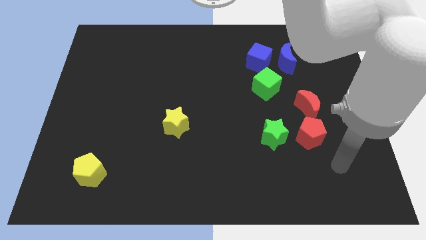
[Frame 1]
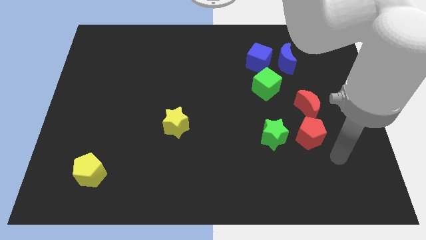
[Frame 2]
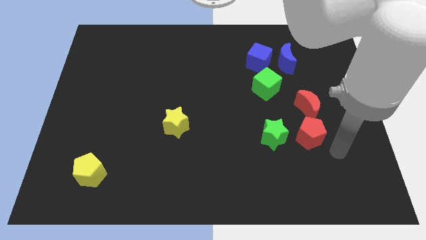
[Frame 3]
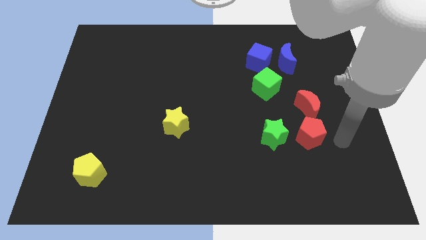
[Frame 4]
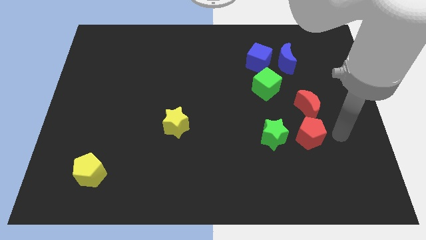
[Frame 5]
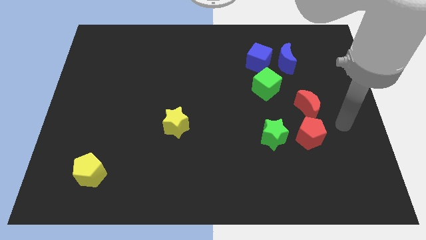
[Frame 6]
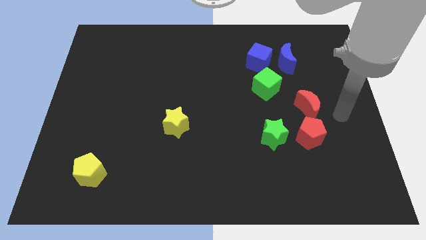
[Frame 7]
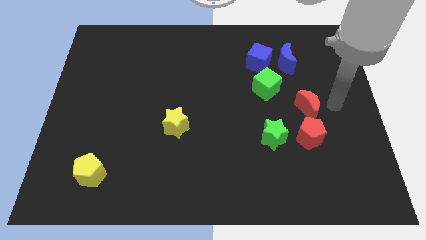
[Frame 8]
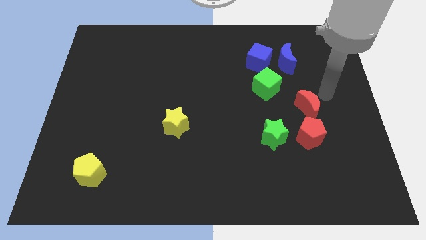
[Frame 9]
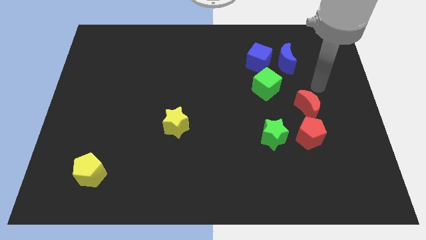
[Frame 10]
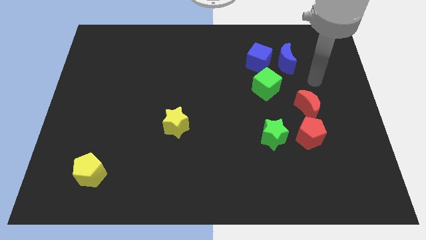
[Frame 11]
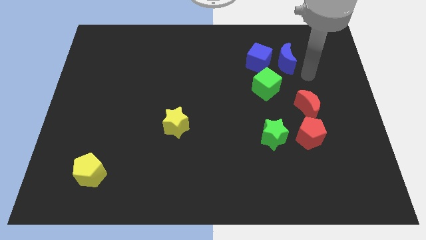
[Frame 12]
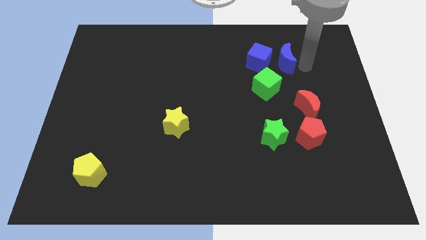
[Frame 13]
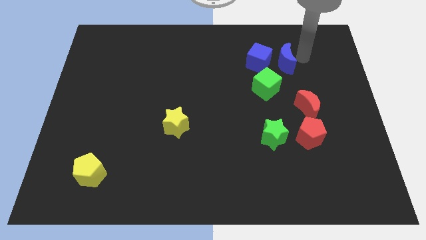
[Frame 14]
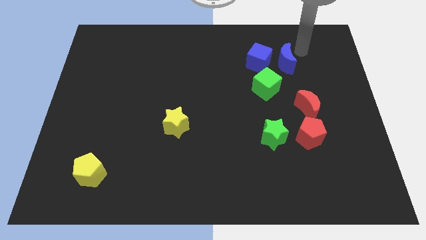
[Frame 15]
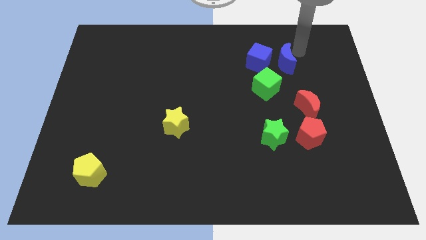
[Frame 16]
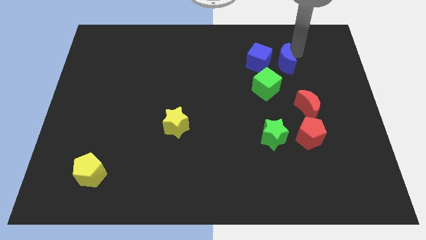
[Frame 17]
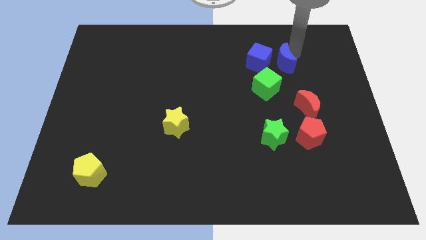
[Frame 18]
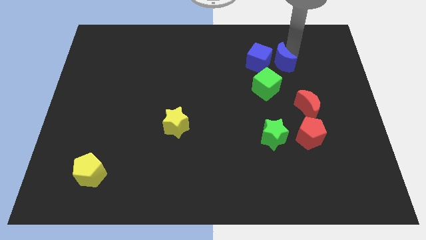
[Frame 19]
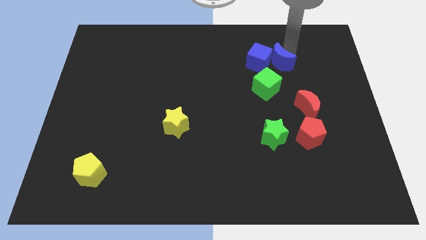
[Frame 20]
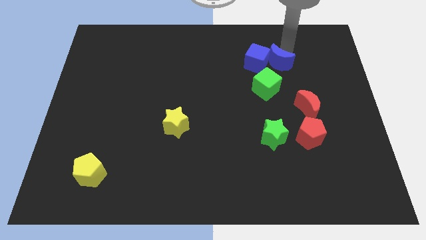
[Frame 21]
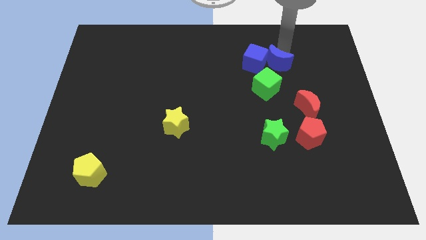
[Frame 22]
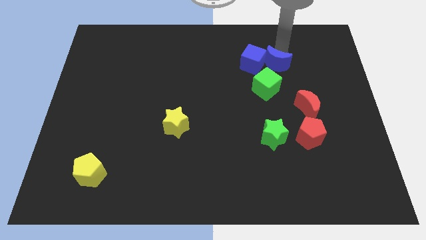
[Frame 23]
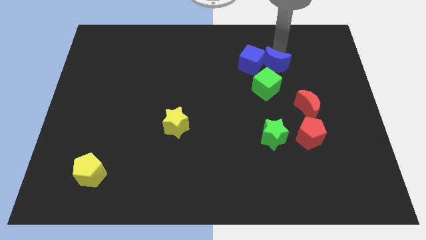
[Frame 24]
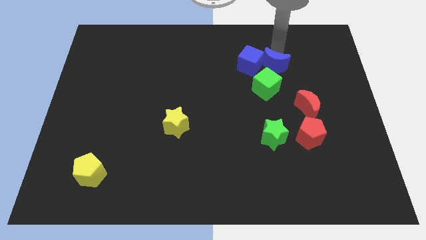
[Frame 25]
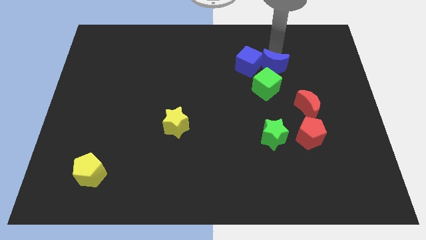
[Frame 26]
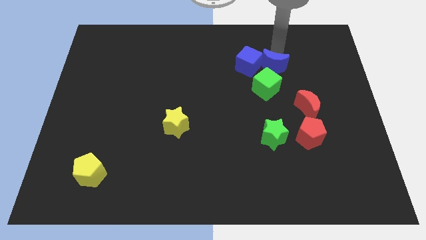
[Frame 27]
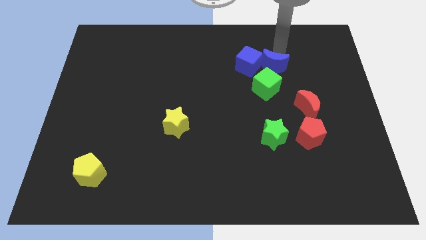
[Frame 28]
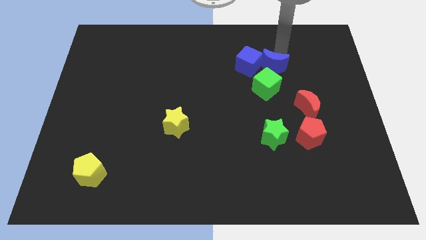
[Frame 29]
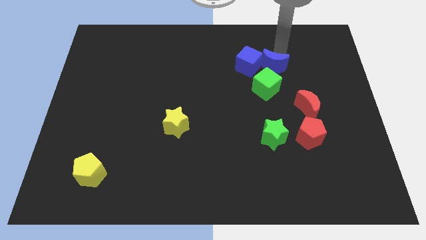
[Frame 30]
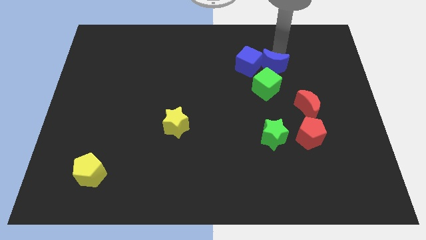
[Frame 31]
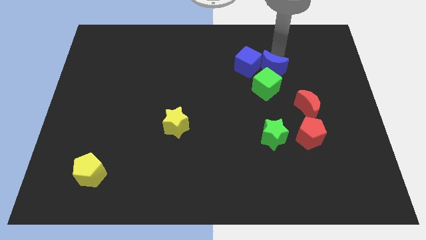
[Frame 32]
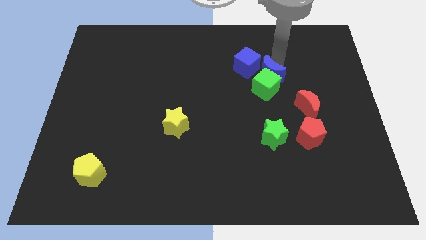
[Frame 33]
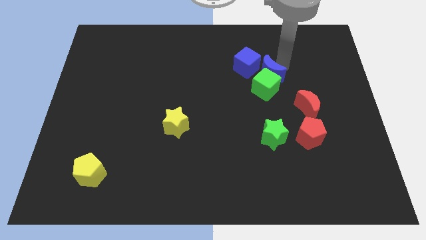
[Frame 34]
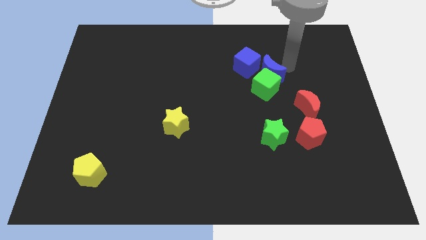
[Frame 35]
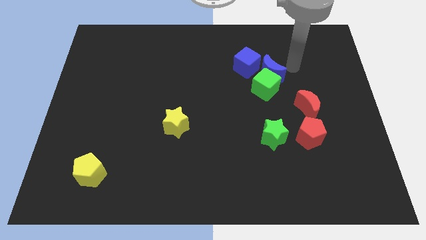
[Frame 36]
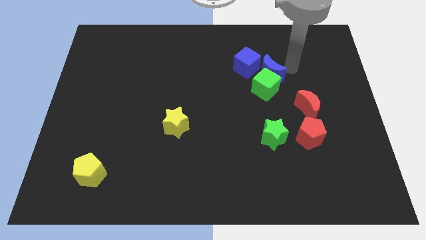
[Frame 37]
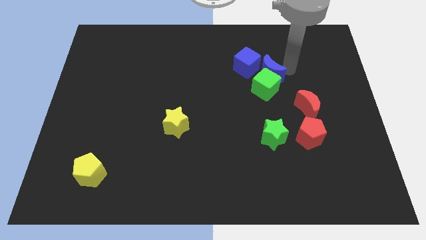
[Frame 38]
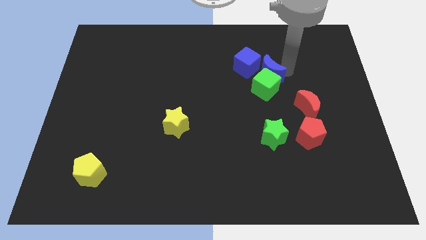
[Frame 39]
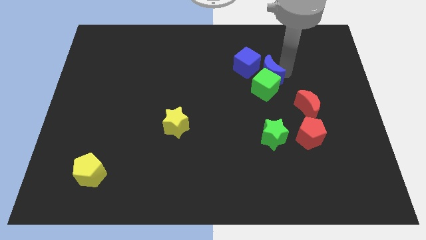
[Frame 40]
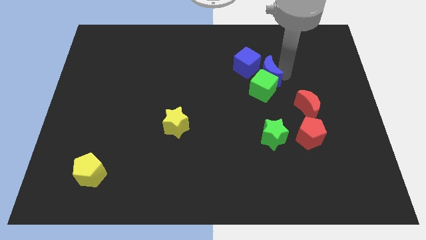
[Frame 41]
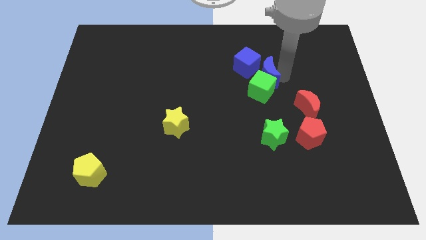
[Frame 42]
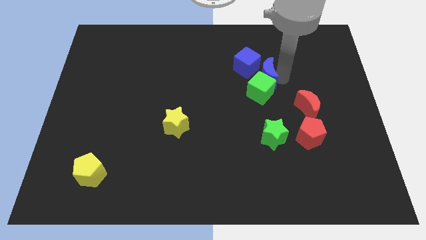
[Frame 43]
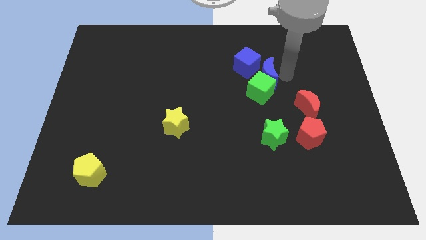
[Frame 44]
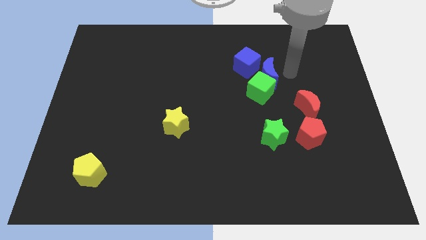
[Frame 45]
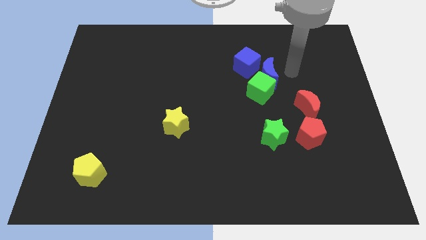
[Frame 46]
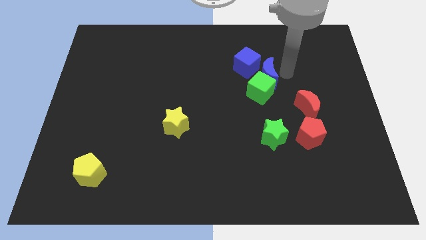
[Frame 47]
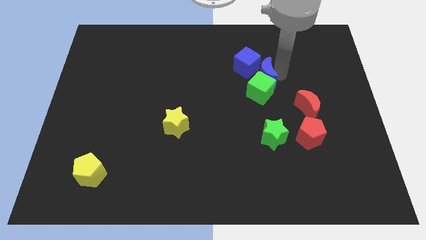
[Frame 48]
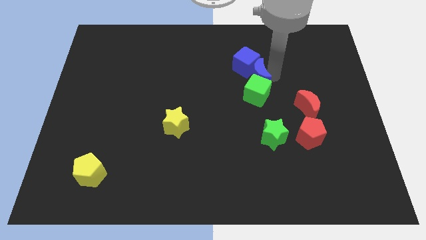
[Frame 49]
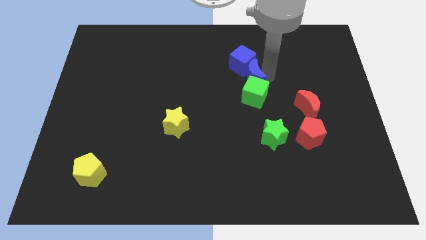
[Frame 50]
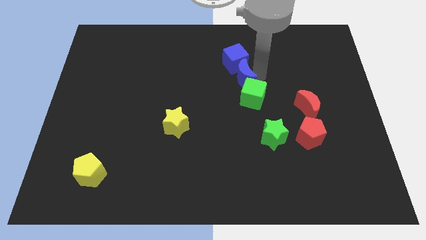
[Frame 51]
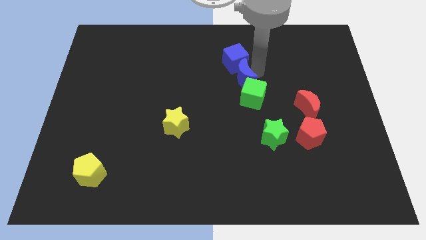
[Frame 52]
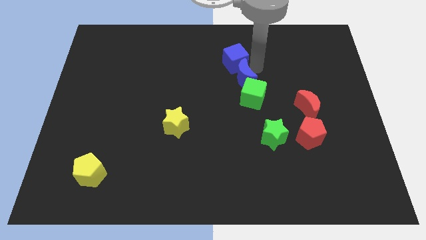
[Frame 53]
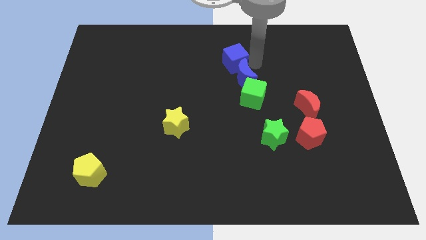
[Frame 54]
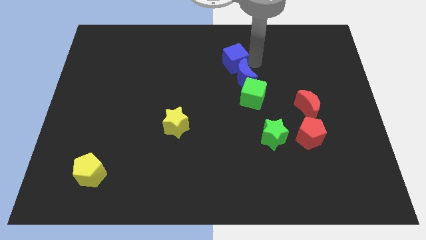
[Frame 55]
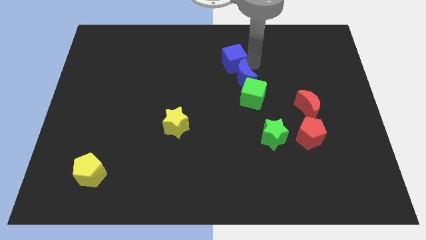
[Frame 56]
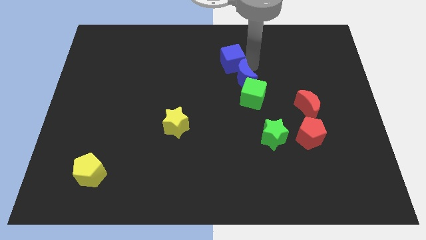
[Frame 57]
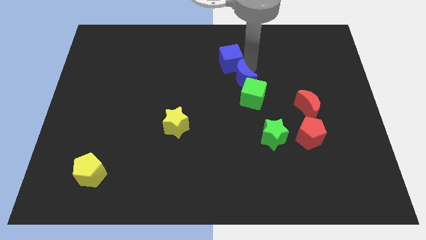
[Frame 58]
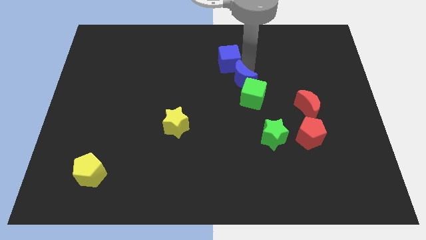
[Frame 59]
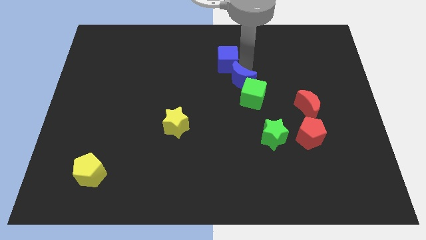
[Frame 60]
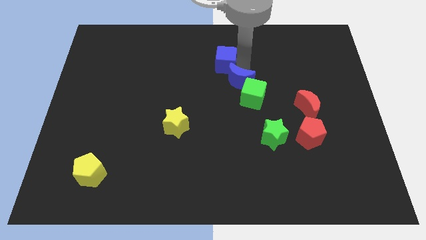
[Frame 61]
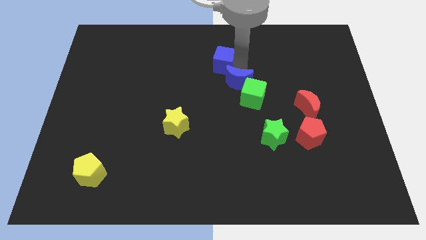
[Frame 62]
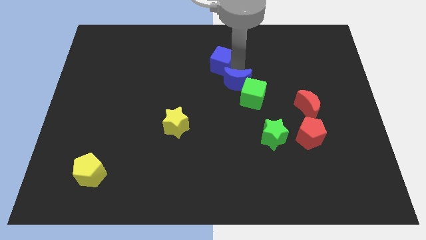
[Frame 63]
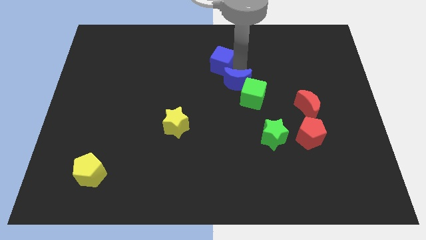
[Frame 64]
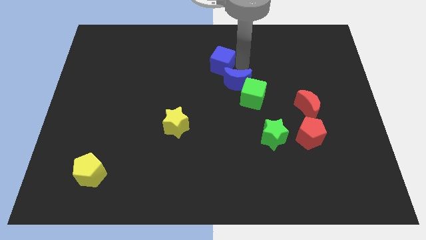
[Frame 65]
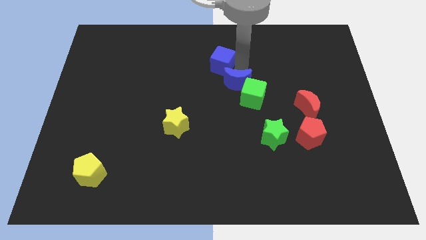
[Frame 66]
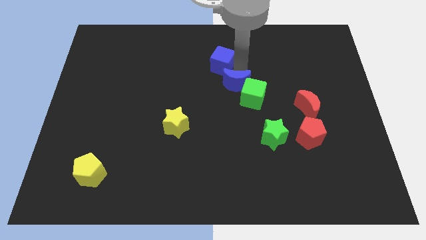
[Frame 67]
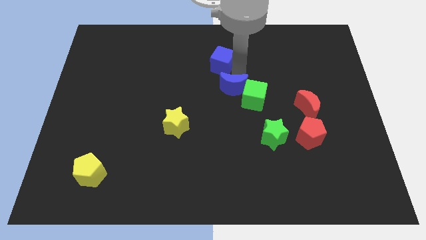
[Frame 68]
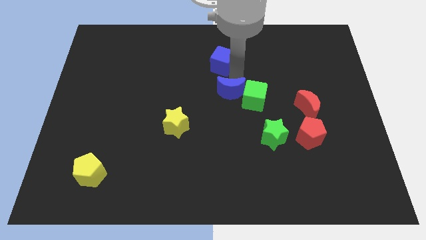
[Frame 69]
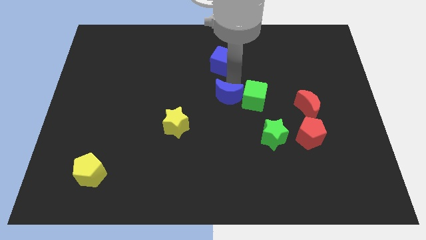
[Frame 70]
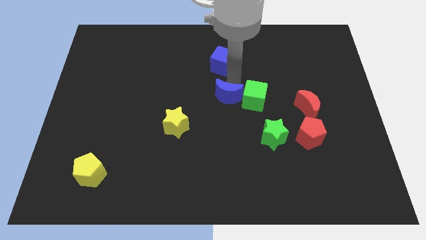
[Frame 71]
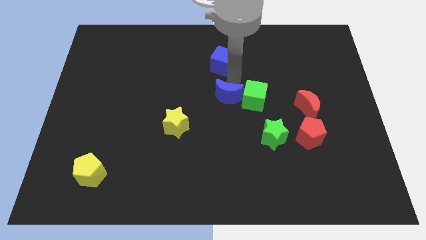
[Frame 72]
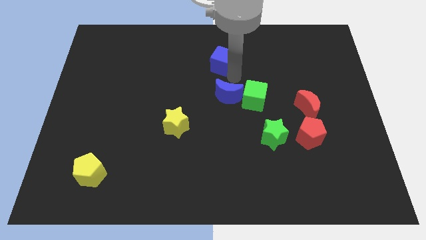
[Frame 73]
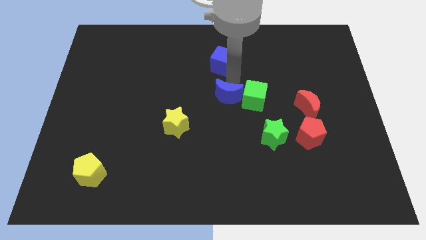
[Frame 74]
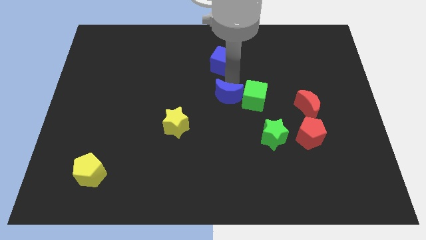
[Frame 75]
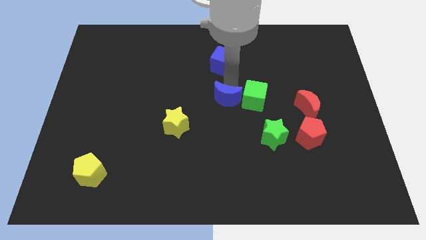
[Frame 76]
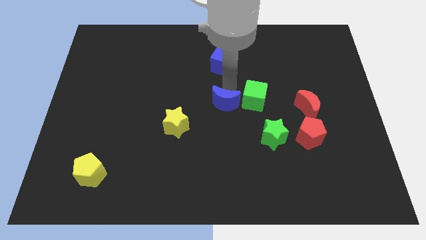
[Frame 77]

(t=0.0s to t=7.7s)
move the blue moon down and then to the left

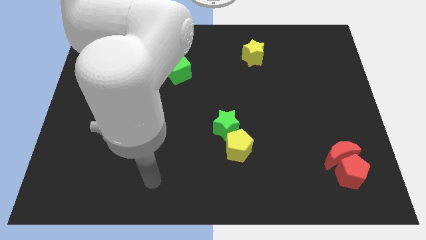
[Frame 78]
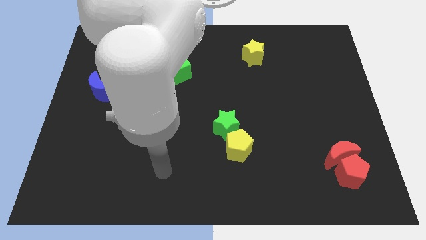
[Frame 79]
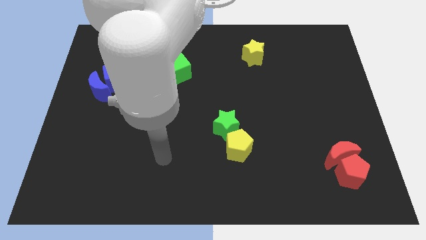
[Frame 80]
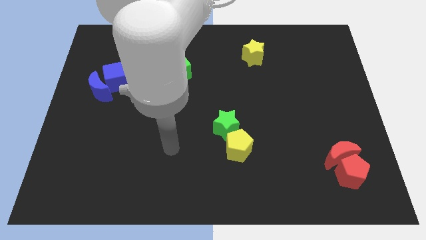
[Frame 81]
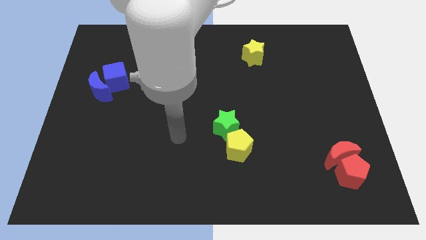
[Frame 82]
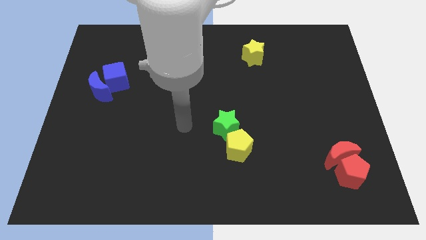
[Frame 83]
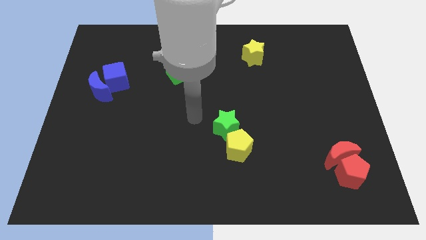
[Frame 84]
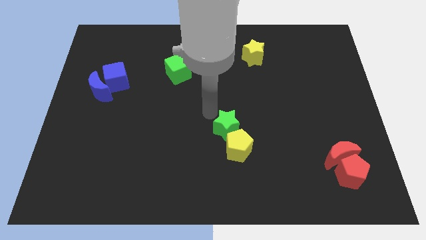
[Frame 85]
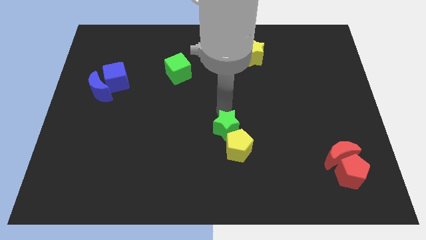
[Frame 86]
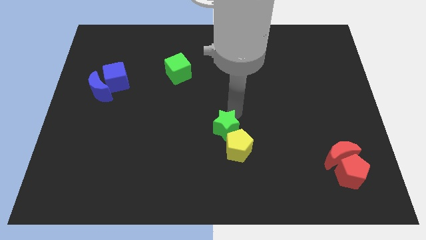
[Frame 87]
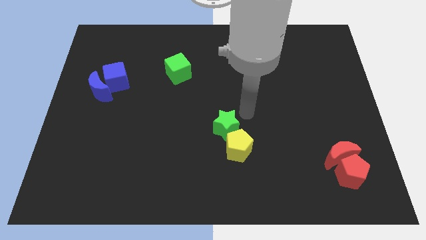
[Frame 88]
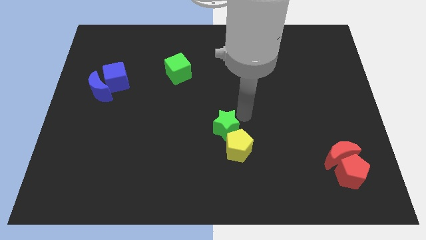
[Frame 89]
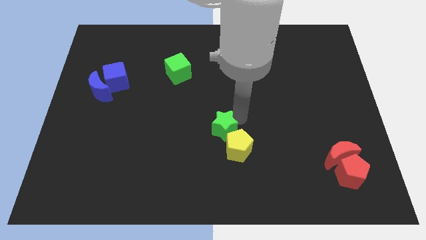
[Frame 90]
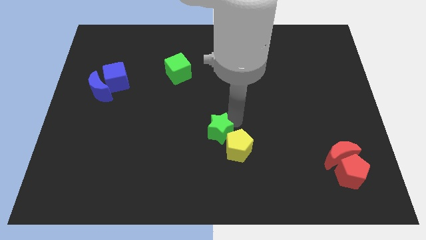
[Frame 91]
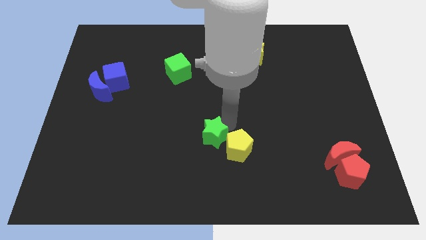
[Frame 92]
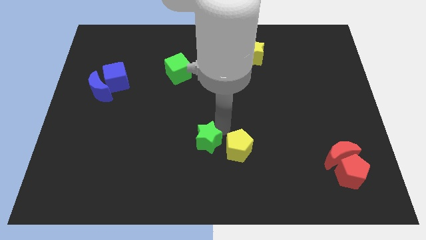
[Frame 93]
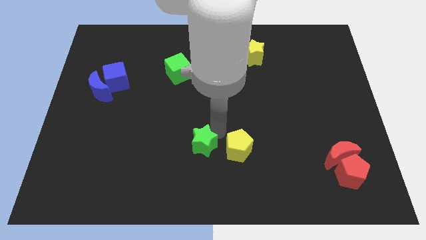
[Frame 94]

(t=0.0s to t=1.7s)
push the green star diagonally downwards and left a little bit
